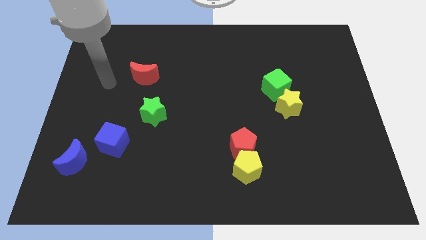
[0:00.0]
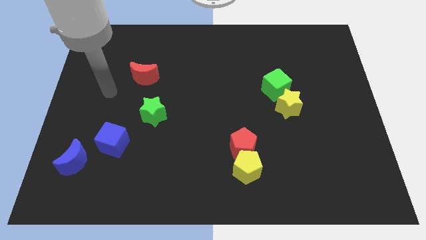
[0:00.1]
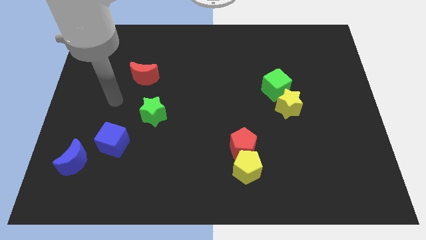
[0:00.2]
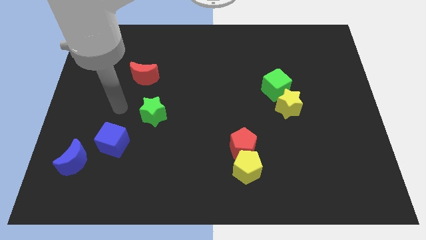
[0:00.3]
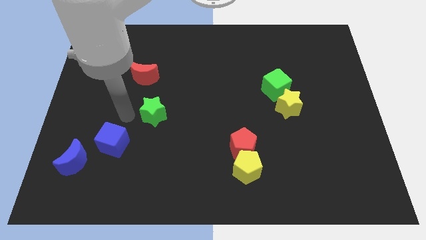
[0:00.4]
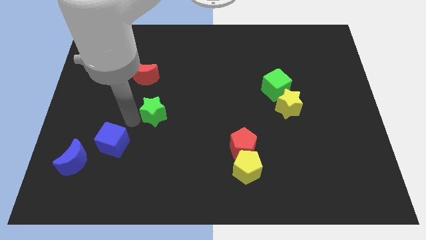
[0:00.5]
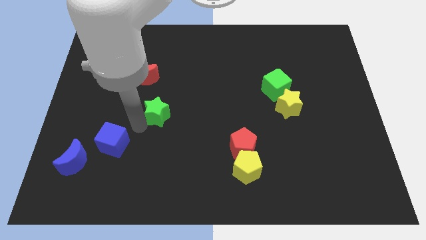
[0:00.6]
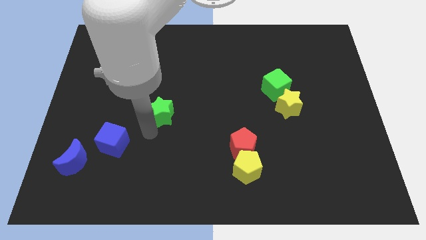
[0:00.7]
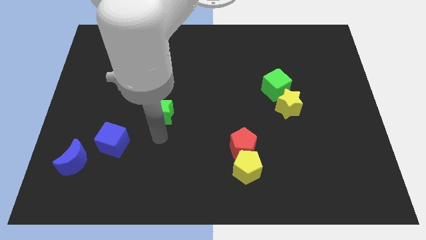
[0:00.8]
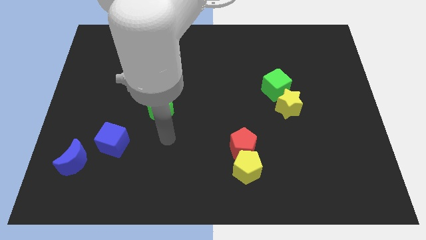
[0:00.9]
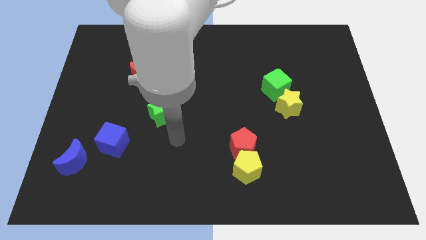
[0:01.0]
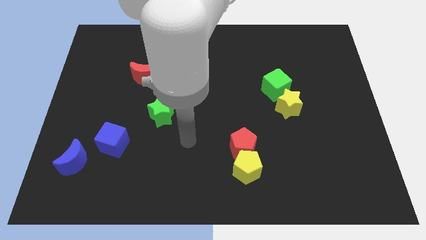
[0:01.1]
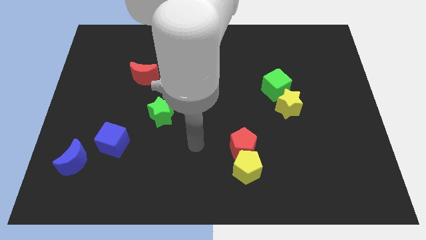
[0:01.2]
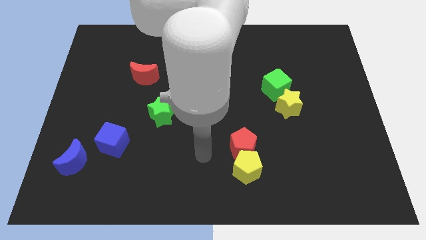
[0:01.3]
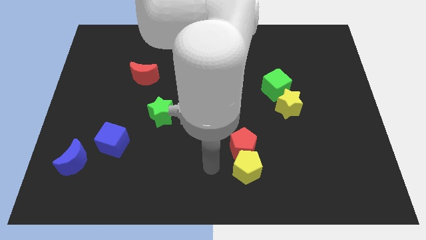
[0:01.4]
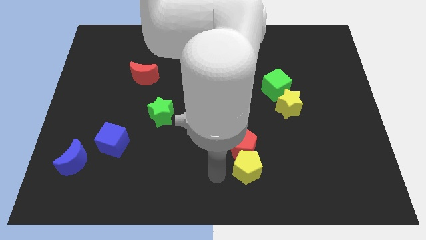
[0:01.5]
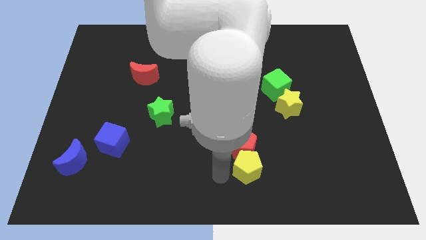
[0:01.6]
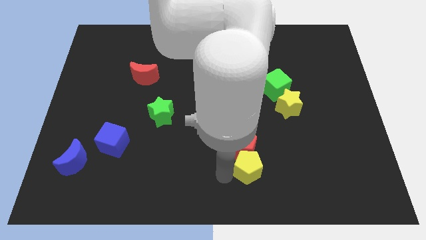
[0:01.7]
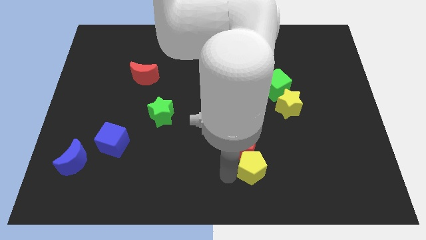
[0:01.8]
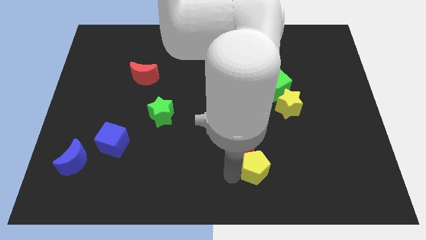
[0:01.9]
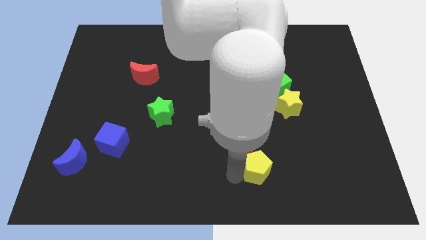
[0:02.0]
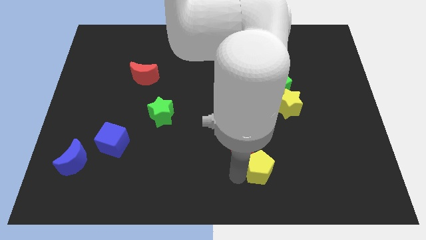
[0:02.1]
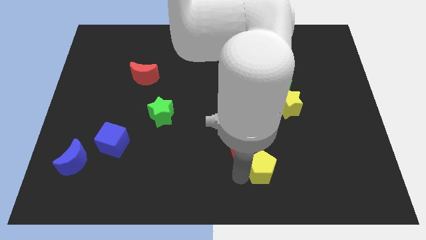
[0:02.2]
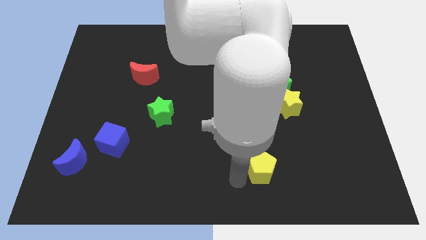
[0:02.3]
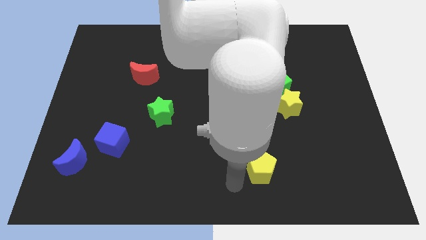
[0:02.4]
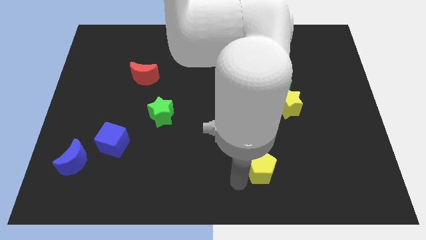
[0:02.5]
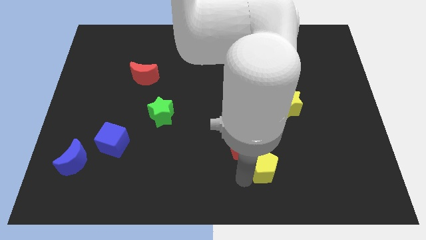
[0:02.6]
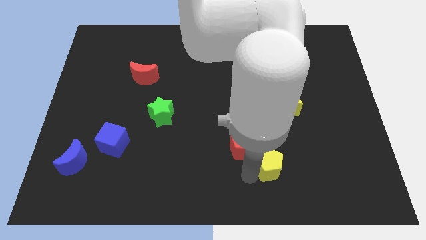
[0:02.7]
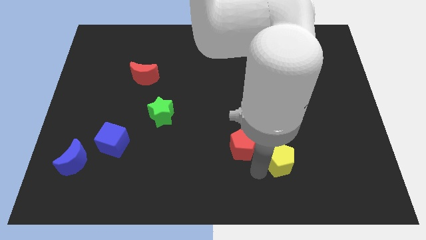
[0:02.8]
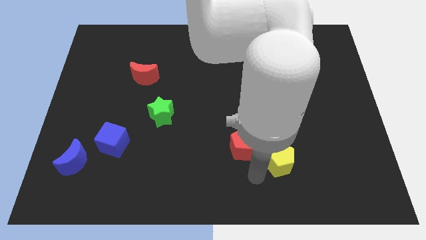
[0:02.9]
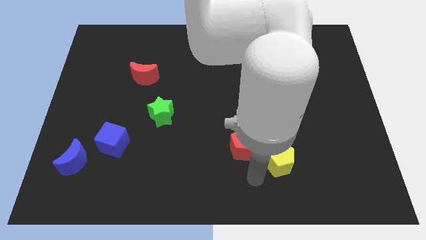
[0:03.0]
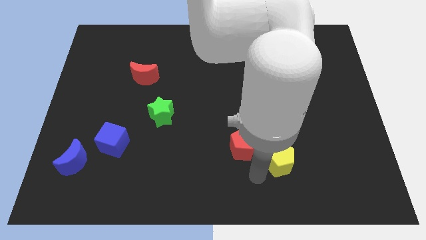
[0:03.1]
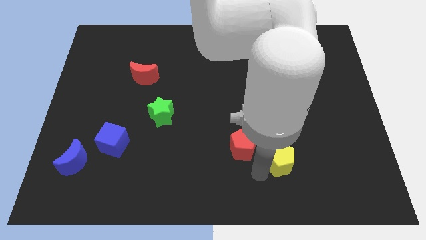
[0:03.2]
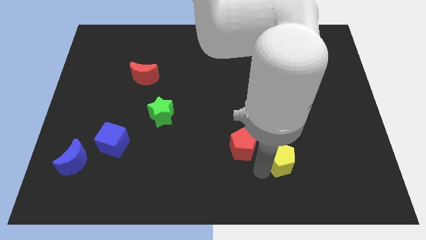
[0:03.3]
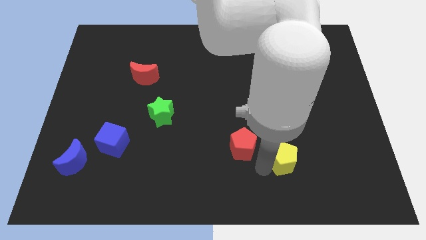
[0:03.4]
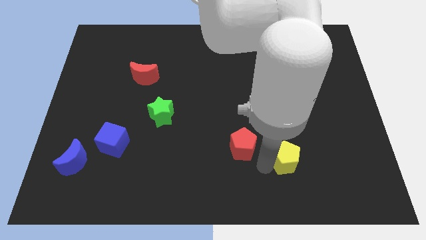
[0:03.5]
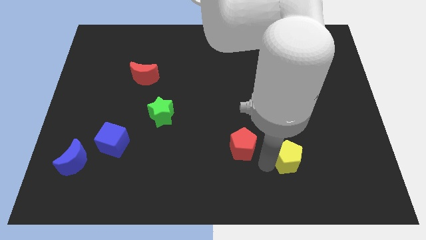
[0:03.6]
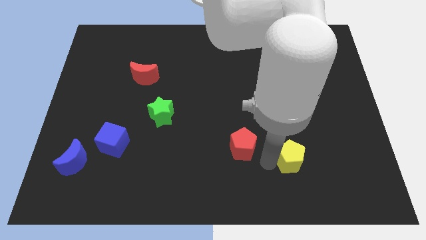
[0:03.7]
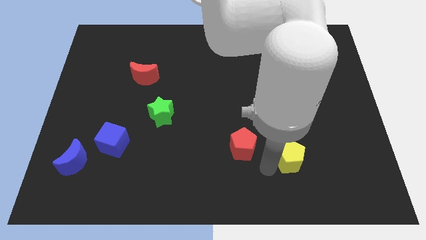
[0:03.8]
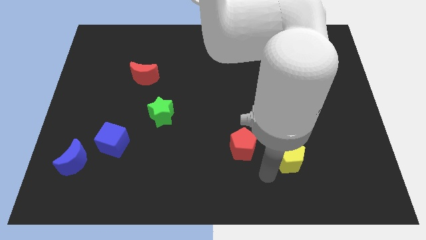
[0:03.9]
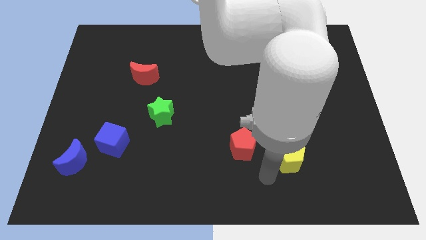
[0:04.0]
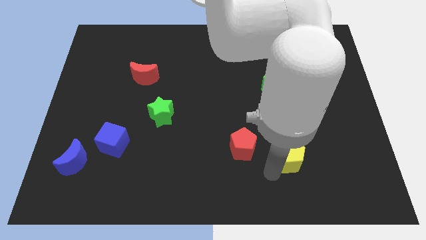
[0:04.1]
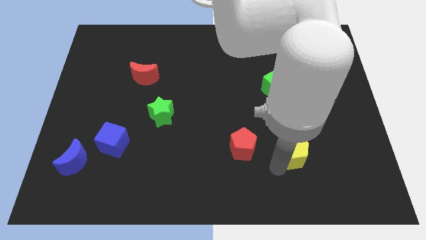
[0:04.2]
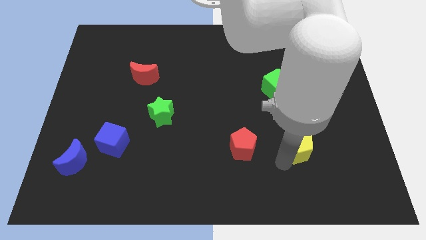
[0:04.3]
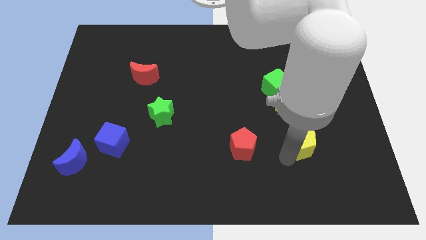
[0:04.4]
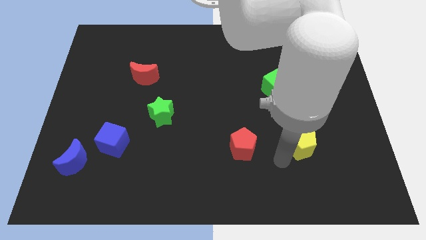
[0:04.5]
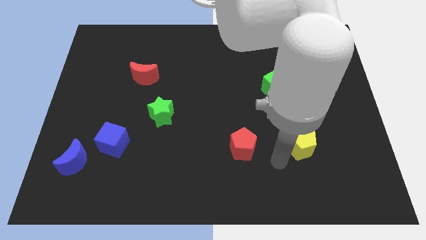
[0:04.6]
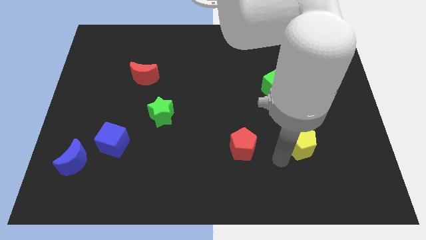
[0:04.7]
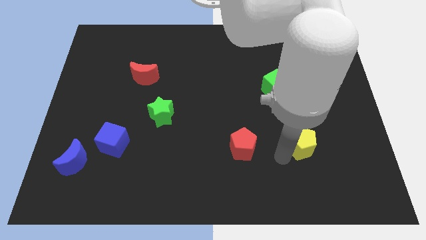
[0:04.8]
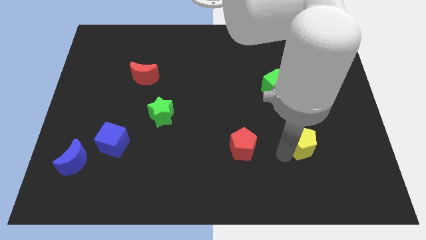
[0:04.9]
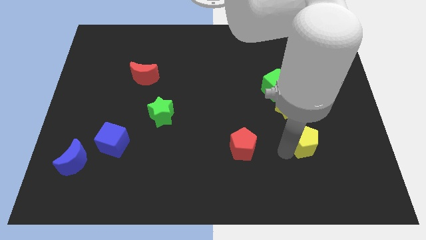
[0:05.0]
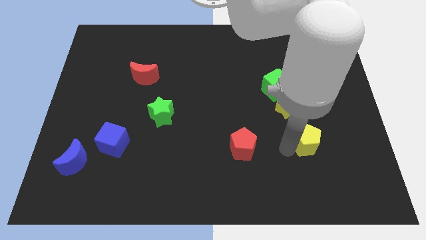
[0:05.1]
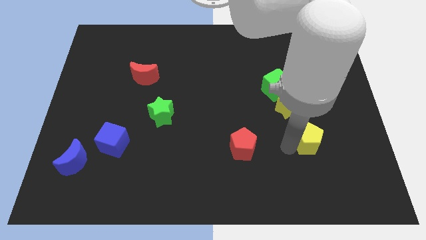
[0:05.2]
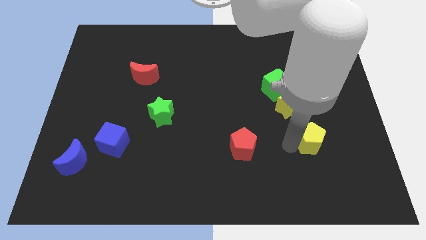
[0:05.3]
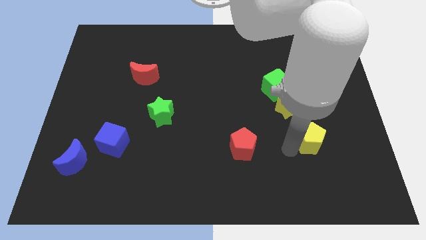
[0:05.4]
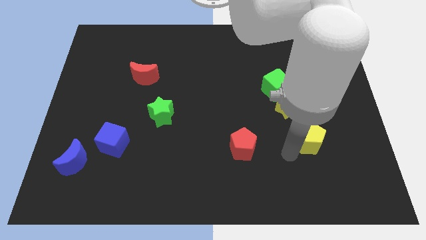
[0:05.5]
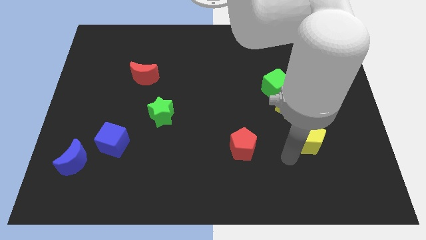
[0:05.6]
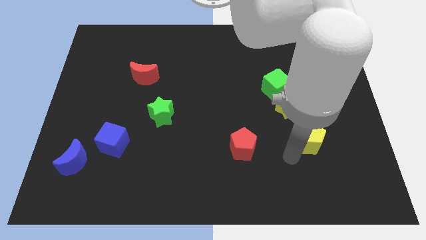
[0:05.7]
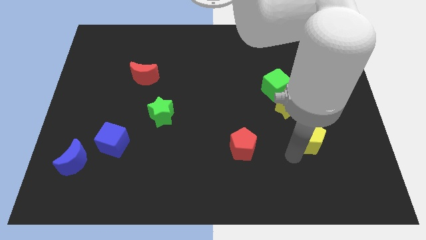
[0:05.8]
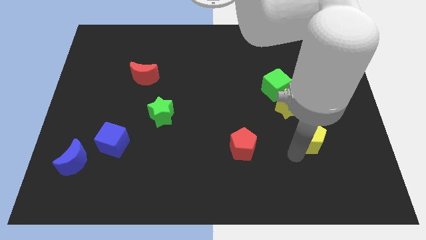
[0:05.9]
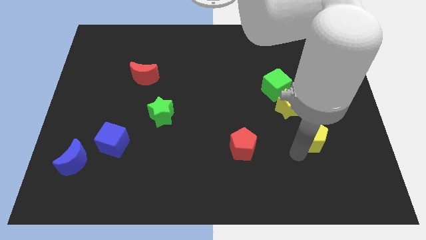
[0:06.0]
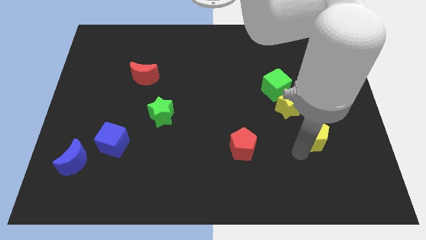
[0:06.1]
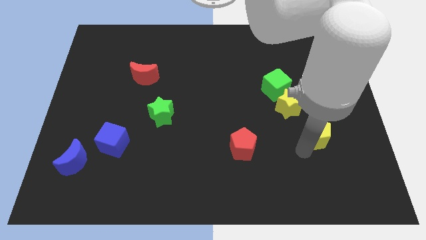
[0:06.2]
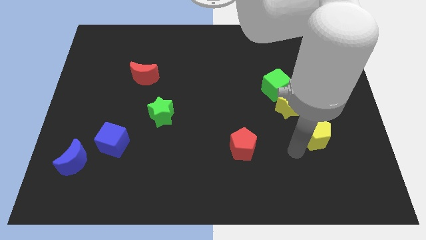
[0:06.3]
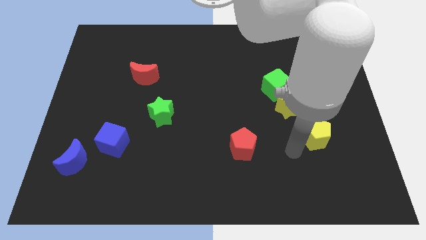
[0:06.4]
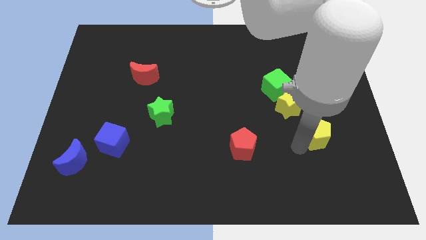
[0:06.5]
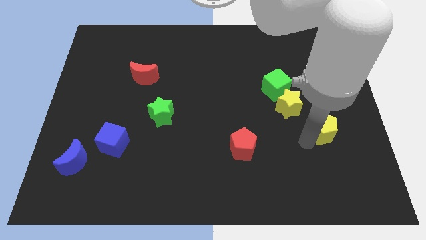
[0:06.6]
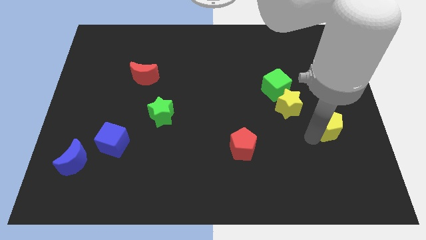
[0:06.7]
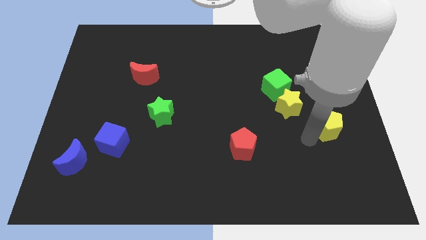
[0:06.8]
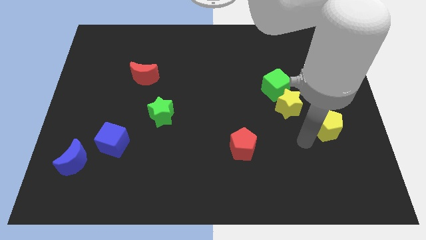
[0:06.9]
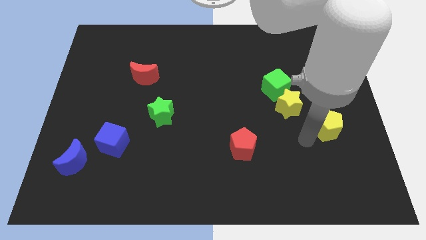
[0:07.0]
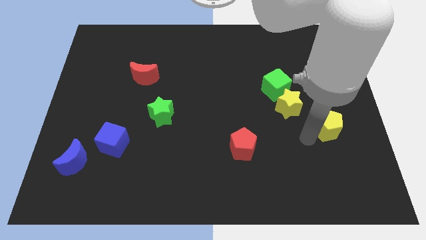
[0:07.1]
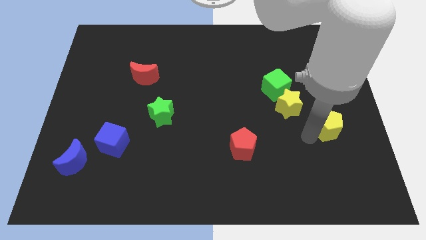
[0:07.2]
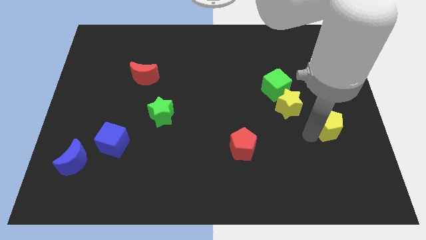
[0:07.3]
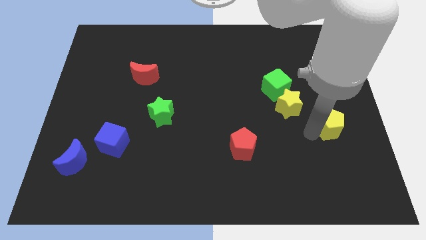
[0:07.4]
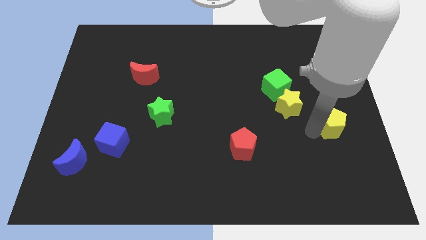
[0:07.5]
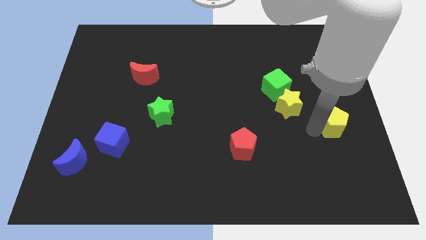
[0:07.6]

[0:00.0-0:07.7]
move the yellow pentagon to the center right
